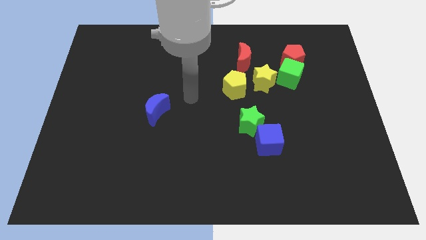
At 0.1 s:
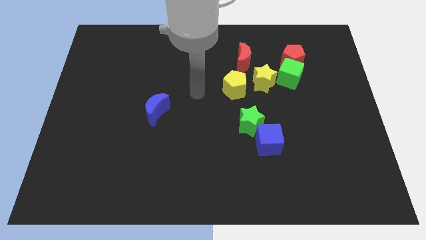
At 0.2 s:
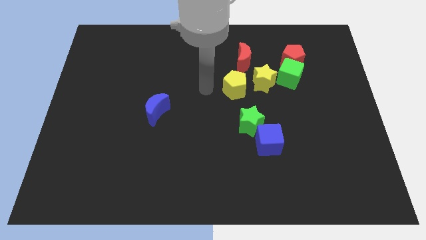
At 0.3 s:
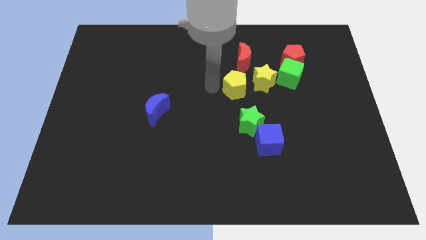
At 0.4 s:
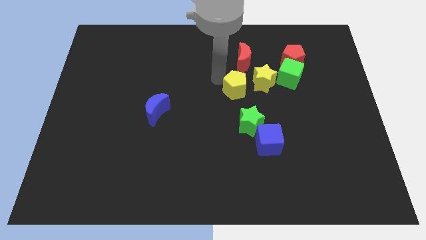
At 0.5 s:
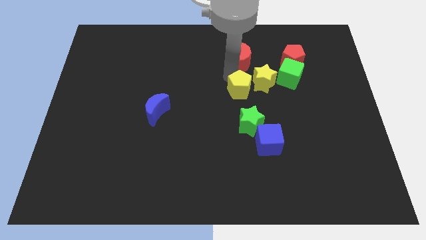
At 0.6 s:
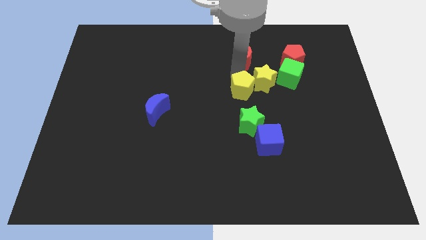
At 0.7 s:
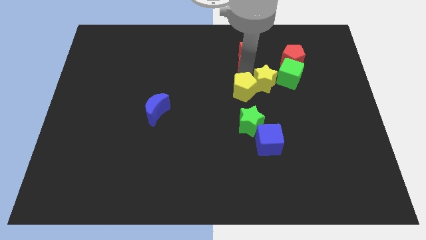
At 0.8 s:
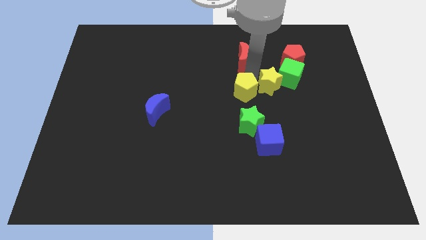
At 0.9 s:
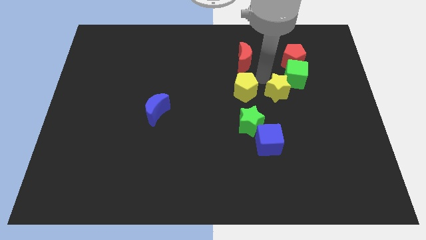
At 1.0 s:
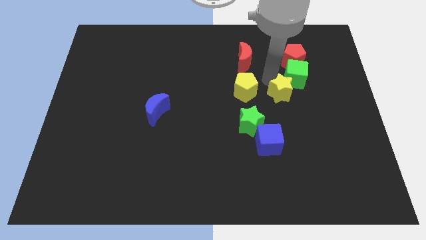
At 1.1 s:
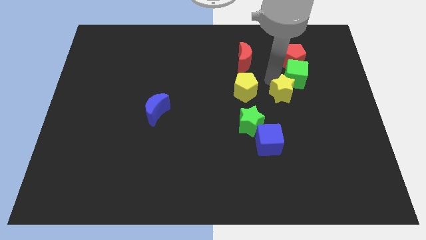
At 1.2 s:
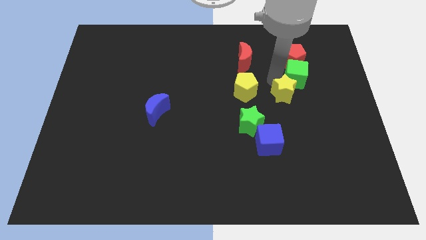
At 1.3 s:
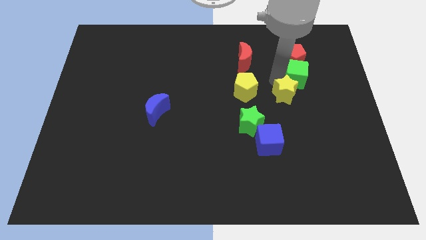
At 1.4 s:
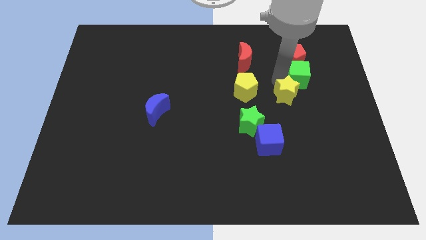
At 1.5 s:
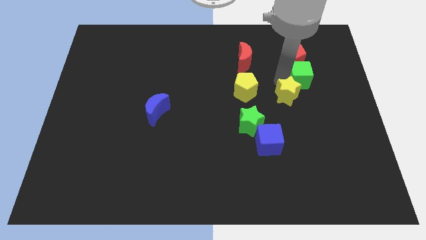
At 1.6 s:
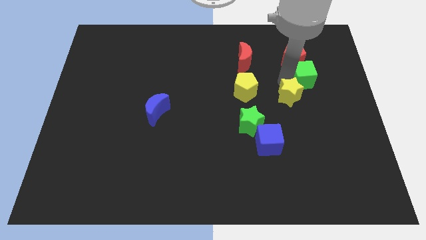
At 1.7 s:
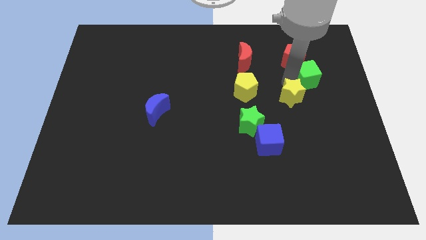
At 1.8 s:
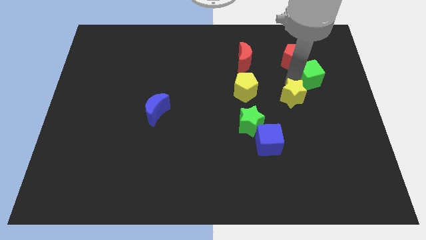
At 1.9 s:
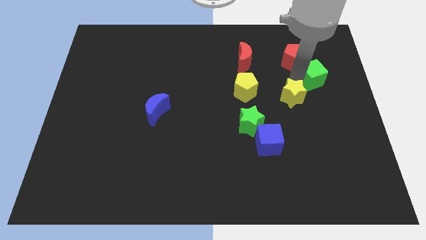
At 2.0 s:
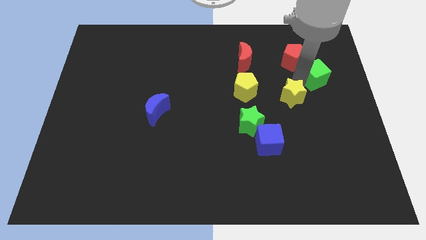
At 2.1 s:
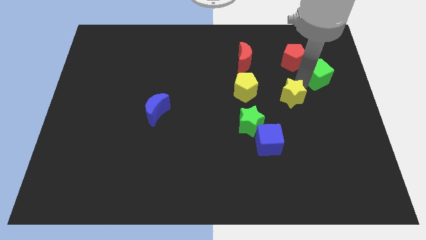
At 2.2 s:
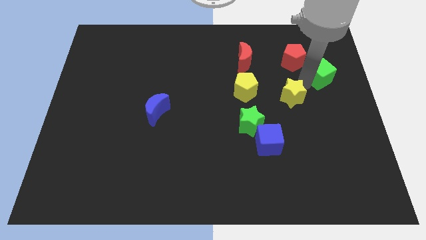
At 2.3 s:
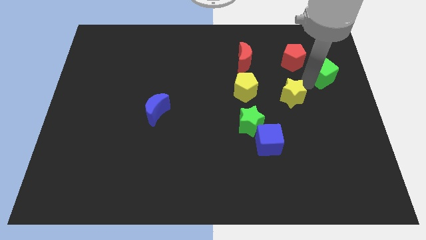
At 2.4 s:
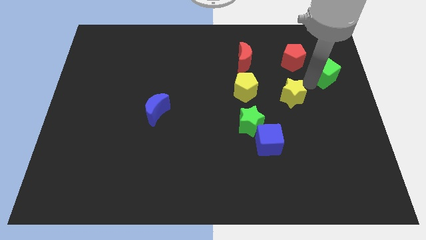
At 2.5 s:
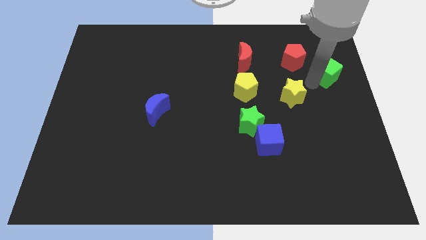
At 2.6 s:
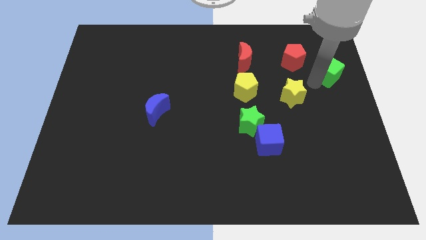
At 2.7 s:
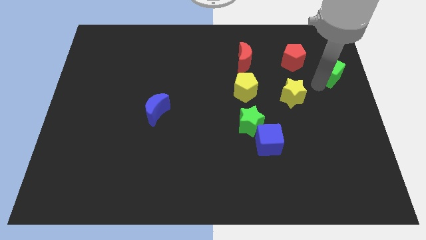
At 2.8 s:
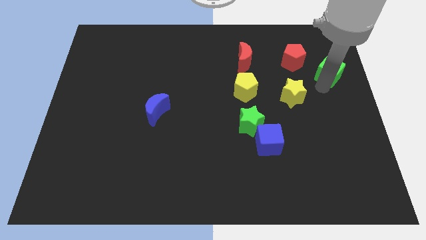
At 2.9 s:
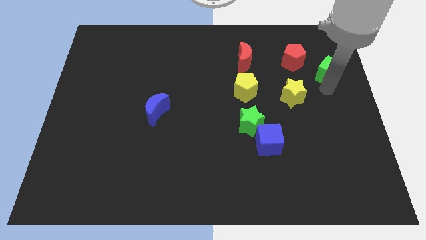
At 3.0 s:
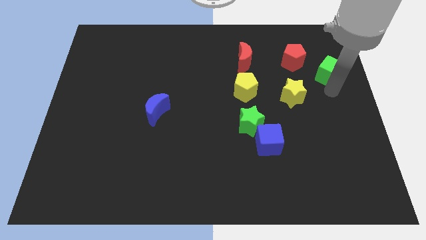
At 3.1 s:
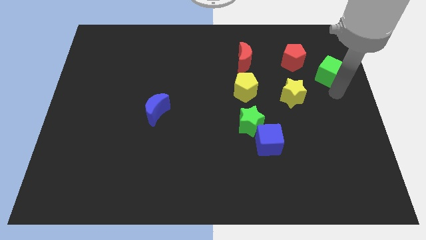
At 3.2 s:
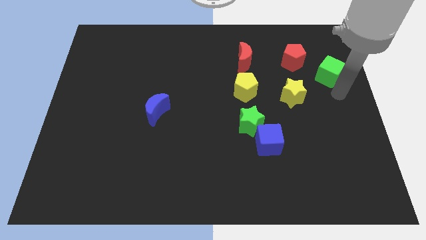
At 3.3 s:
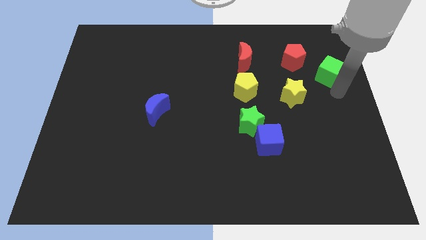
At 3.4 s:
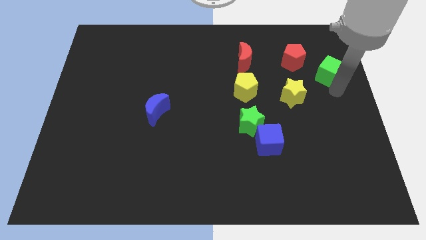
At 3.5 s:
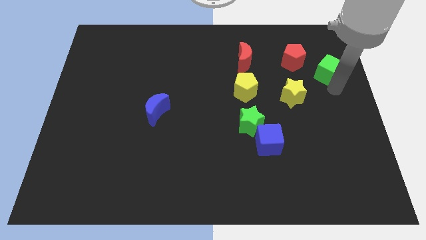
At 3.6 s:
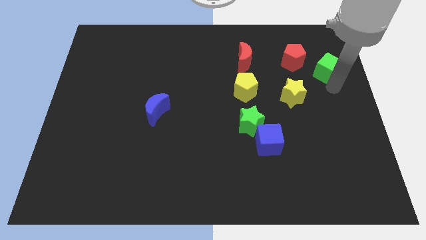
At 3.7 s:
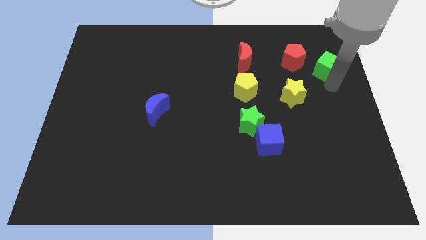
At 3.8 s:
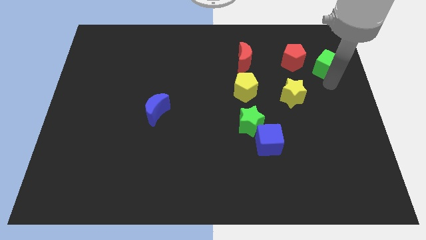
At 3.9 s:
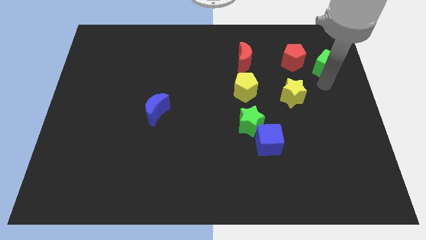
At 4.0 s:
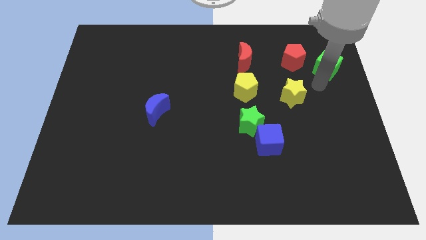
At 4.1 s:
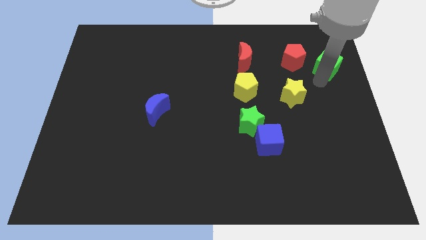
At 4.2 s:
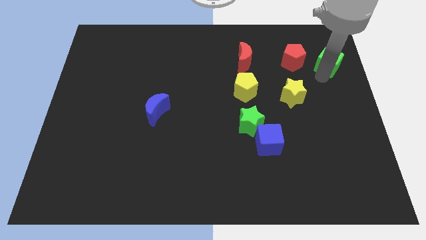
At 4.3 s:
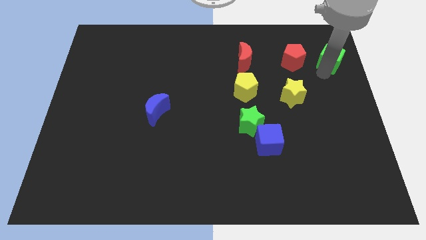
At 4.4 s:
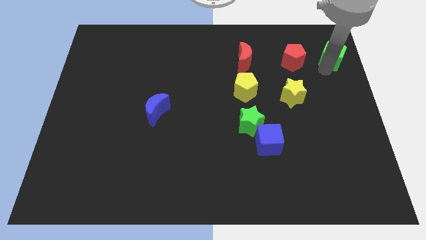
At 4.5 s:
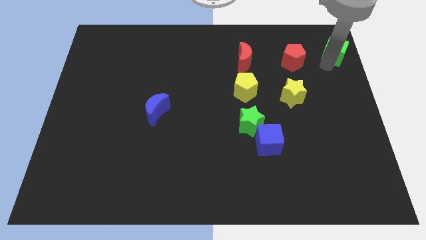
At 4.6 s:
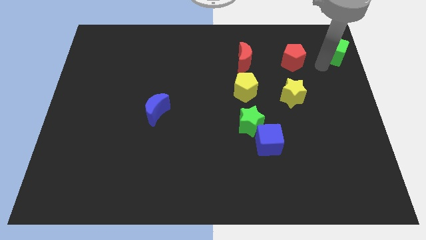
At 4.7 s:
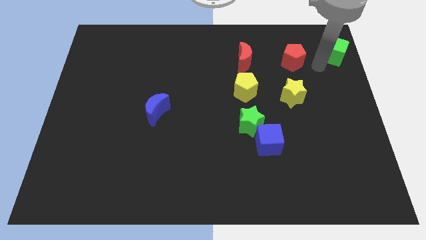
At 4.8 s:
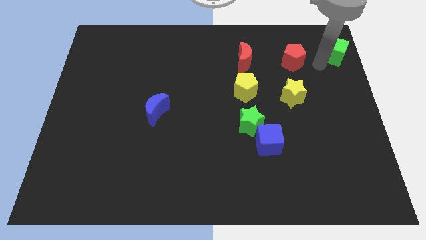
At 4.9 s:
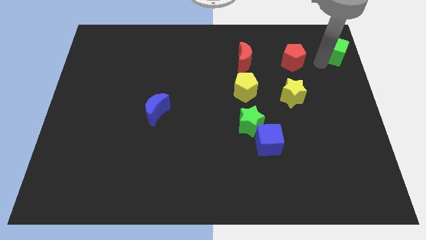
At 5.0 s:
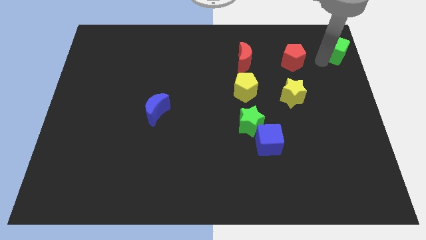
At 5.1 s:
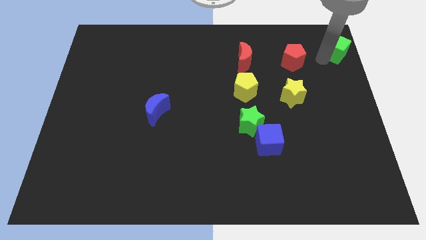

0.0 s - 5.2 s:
push the green cube to the top right corner

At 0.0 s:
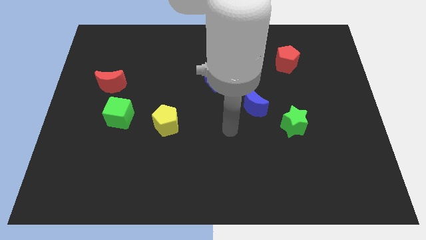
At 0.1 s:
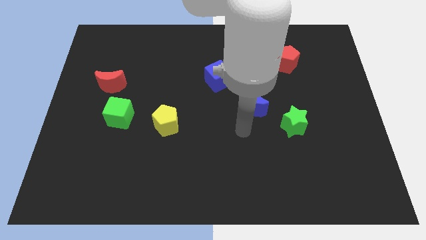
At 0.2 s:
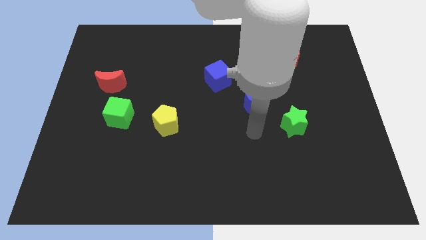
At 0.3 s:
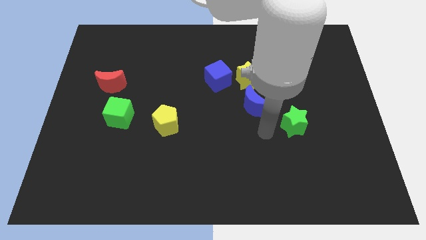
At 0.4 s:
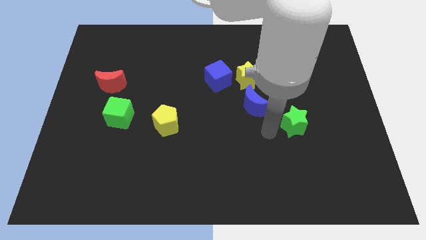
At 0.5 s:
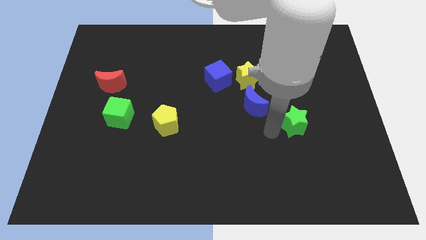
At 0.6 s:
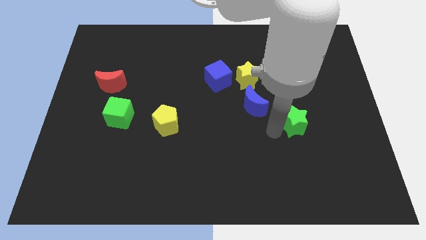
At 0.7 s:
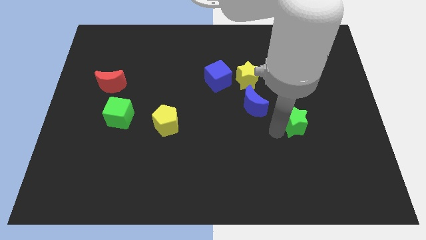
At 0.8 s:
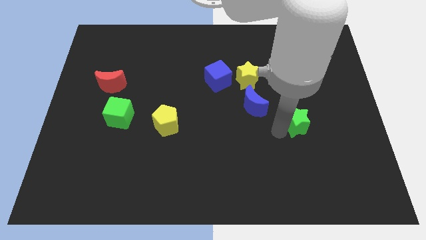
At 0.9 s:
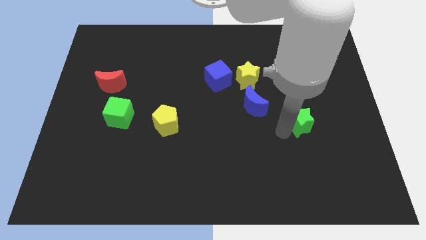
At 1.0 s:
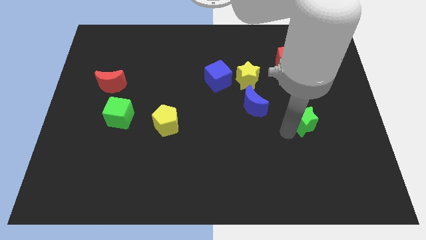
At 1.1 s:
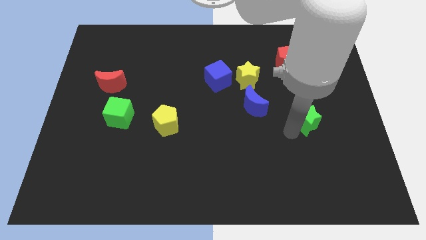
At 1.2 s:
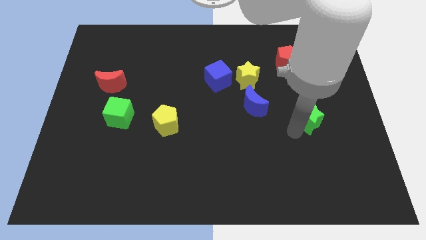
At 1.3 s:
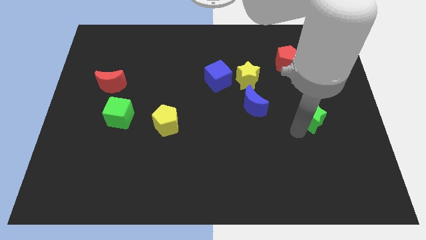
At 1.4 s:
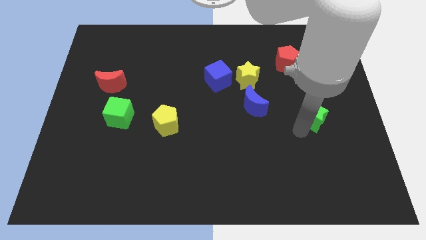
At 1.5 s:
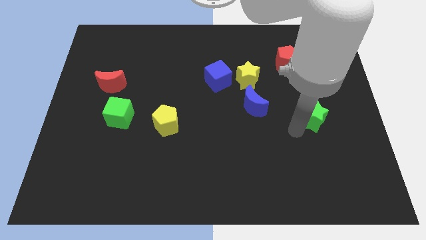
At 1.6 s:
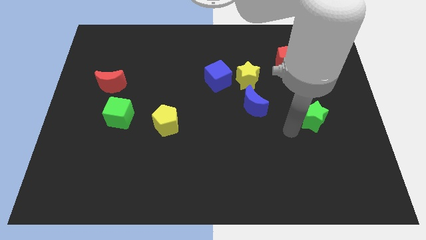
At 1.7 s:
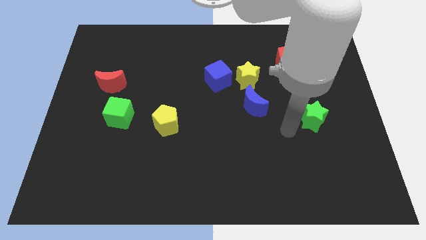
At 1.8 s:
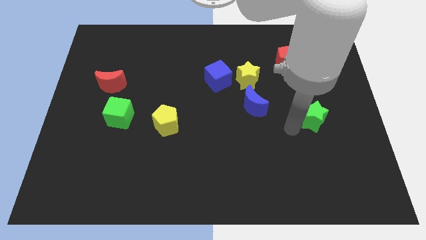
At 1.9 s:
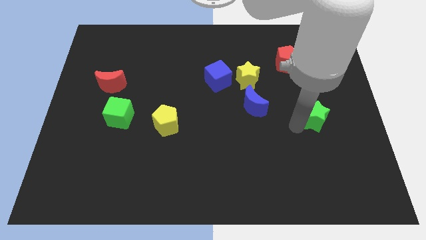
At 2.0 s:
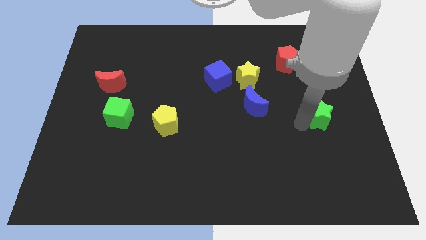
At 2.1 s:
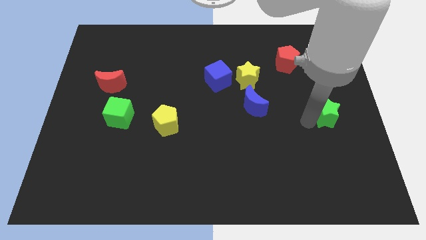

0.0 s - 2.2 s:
slide the green star to the center right
